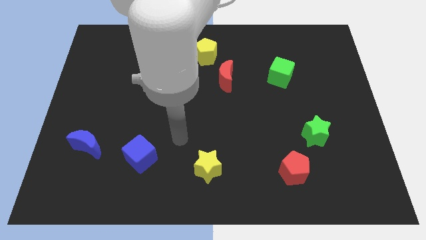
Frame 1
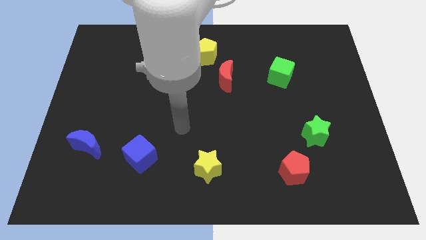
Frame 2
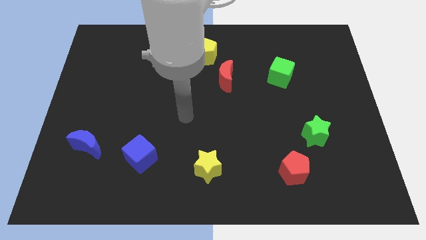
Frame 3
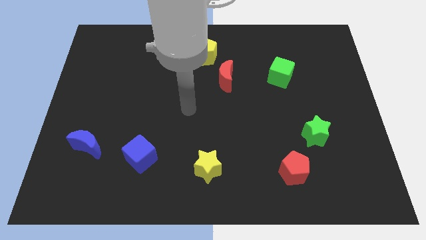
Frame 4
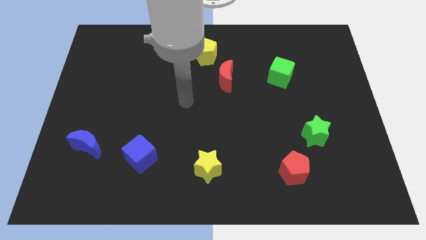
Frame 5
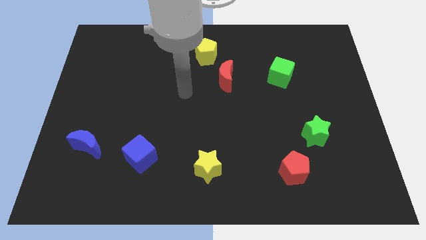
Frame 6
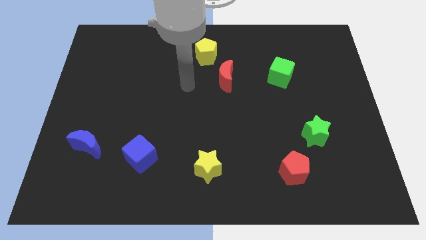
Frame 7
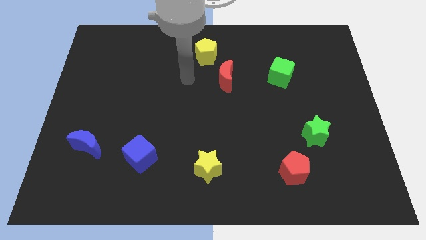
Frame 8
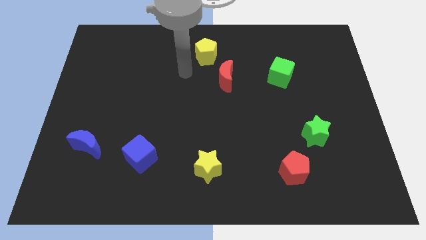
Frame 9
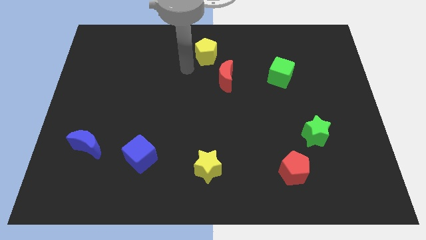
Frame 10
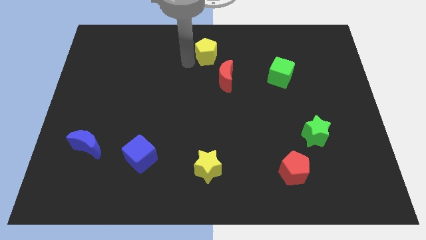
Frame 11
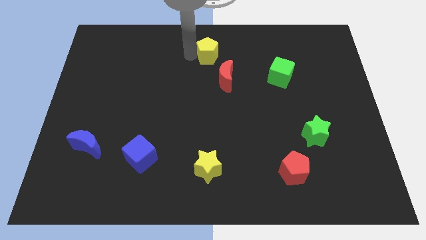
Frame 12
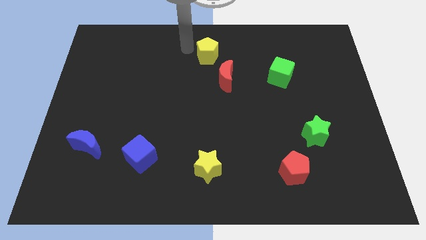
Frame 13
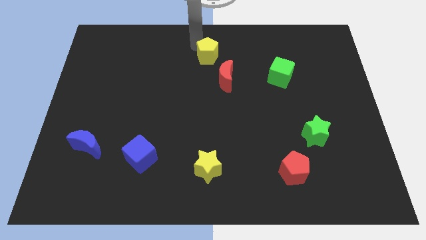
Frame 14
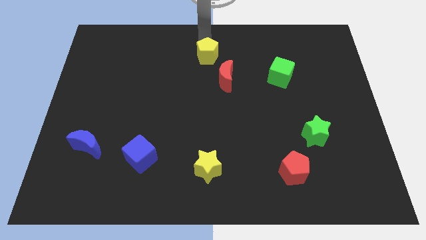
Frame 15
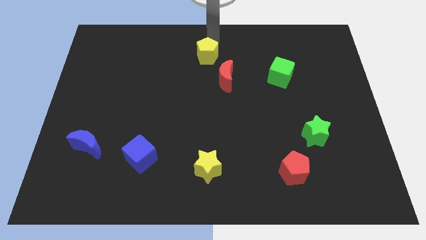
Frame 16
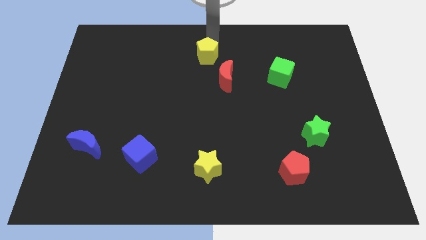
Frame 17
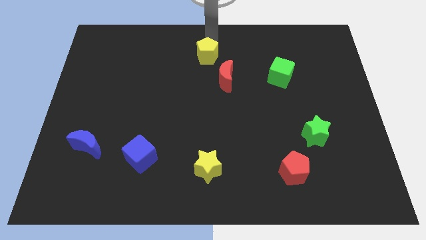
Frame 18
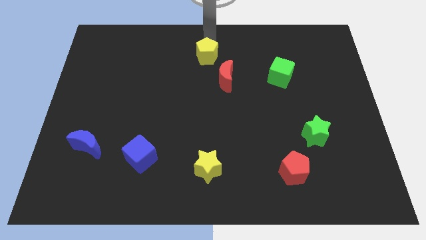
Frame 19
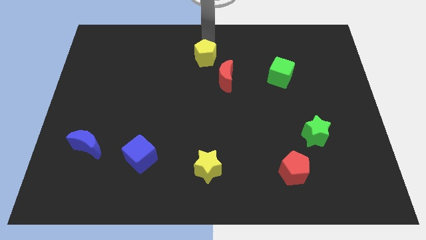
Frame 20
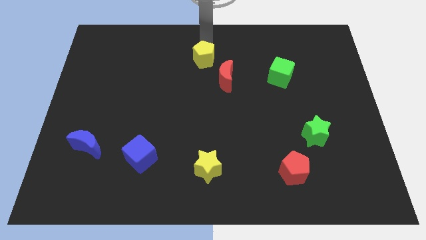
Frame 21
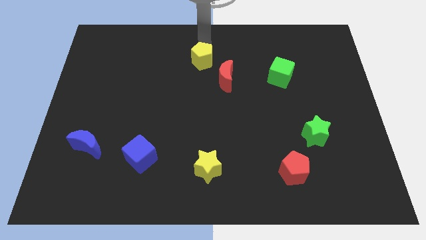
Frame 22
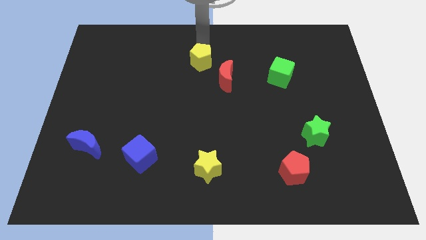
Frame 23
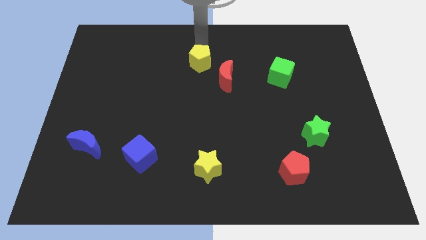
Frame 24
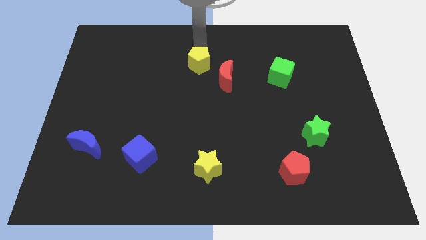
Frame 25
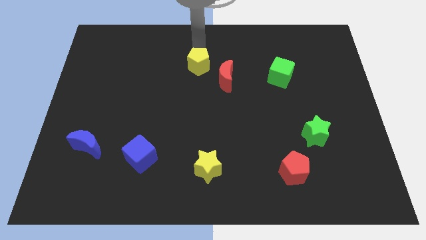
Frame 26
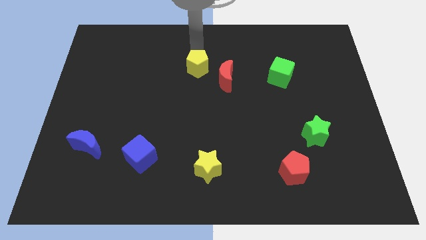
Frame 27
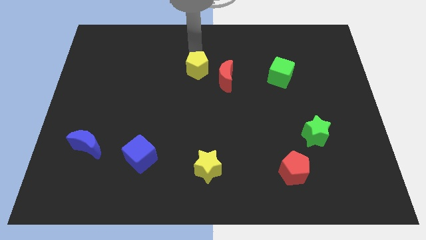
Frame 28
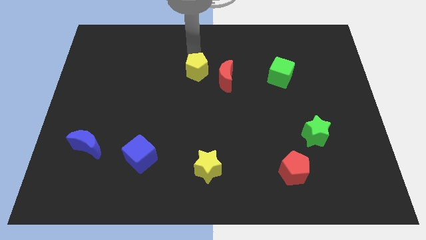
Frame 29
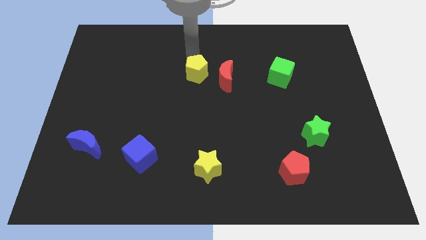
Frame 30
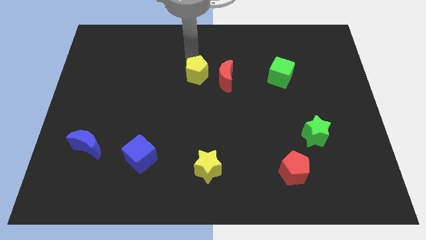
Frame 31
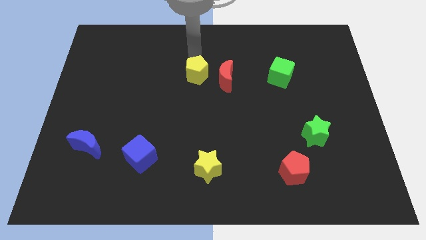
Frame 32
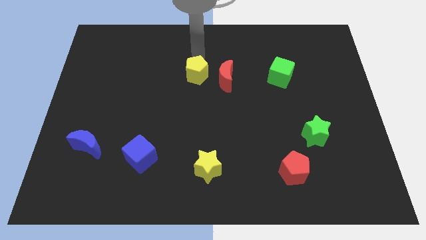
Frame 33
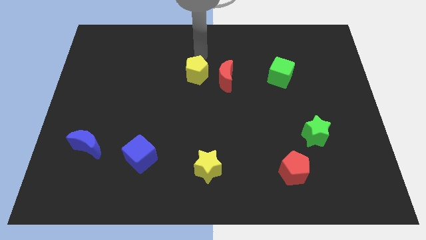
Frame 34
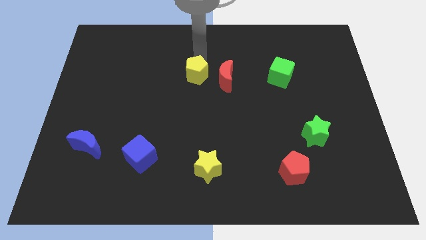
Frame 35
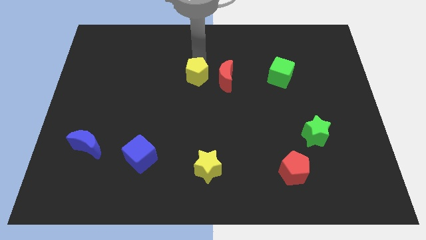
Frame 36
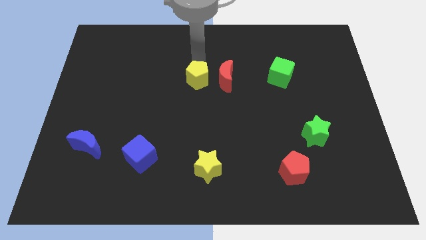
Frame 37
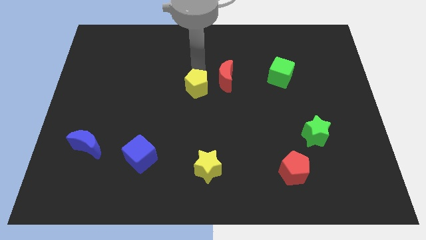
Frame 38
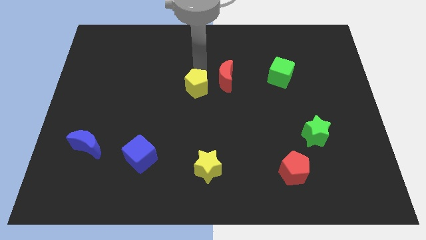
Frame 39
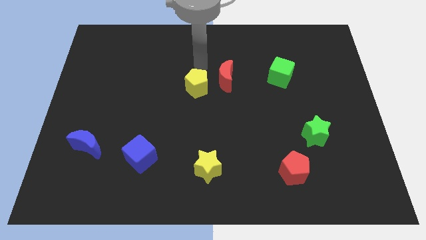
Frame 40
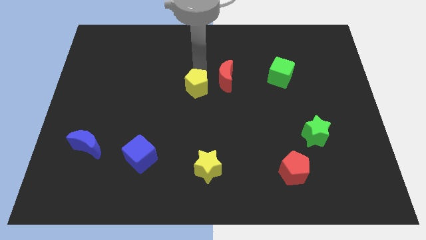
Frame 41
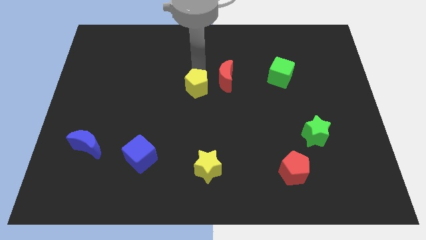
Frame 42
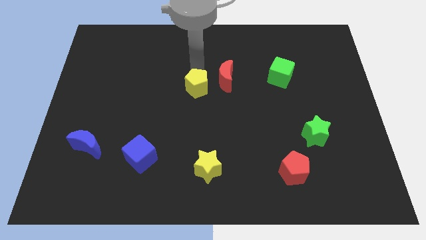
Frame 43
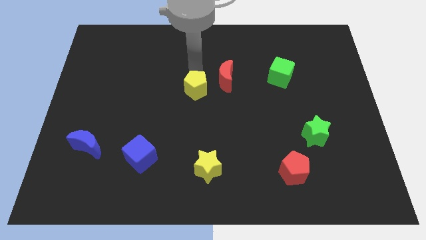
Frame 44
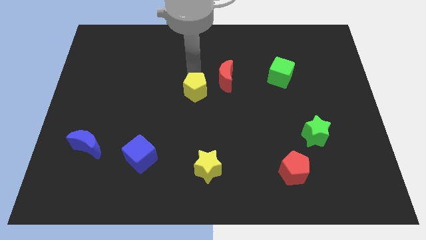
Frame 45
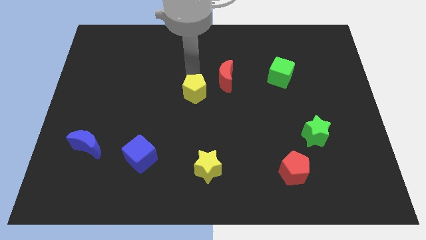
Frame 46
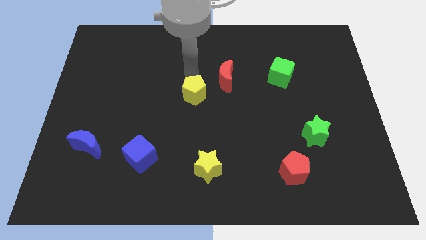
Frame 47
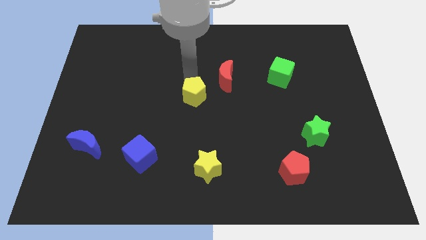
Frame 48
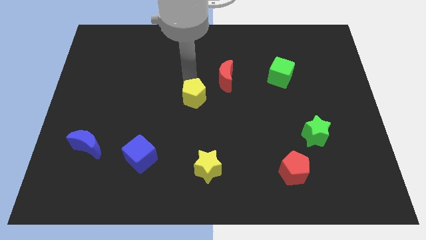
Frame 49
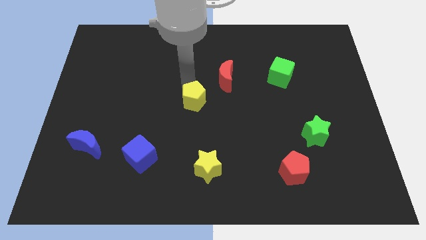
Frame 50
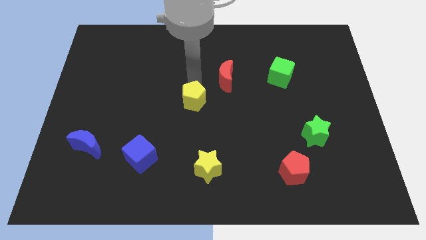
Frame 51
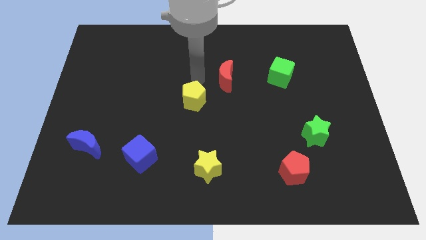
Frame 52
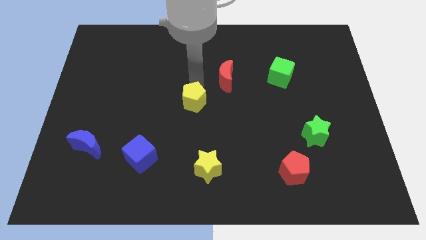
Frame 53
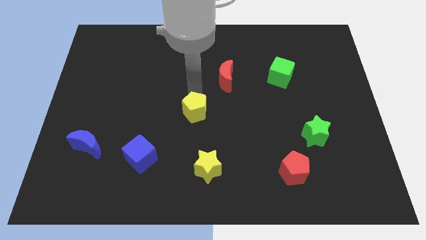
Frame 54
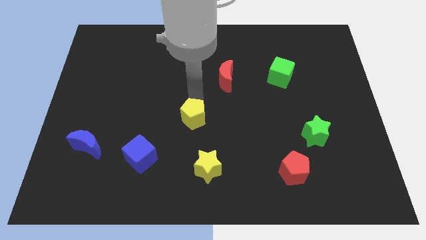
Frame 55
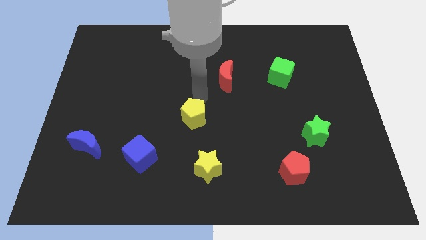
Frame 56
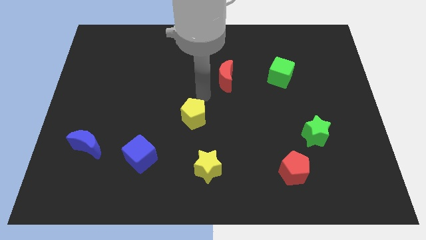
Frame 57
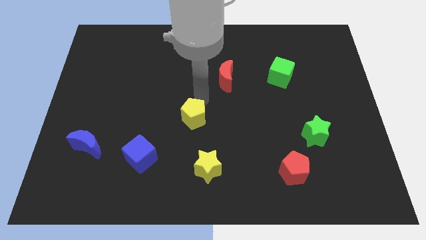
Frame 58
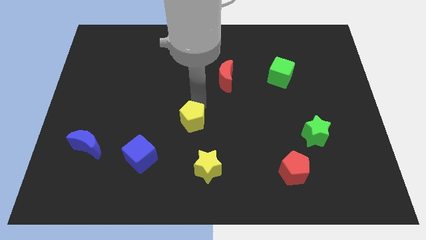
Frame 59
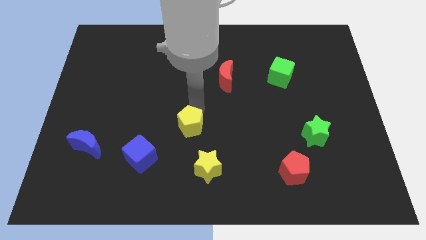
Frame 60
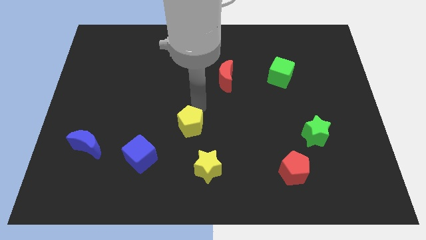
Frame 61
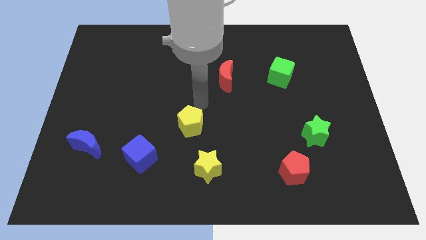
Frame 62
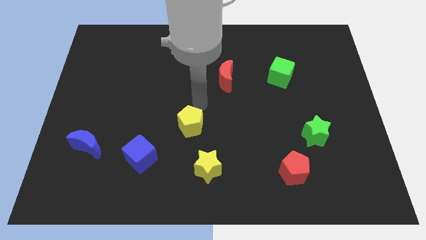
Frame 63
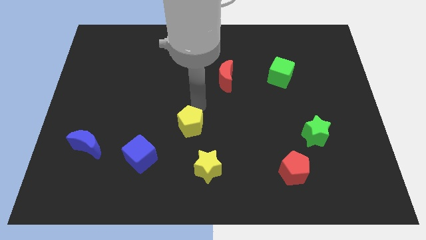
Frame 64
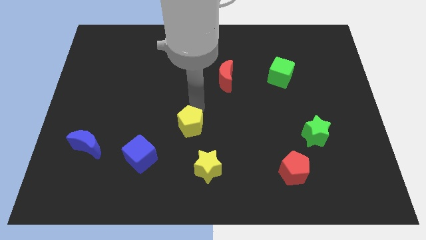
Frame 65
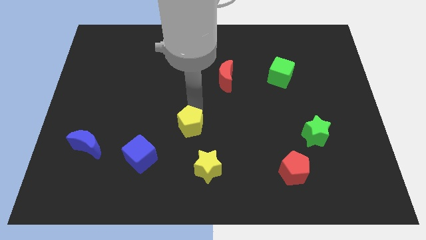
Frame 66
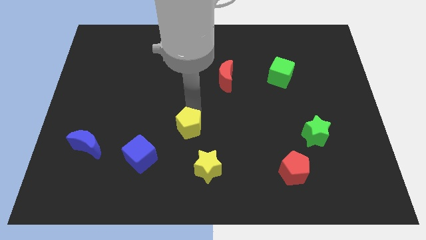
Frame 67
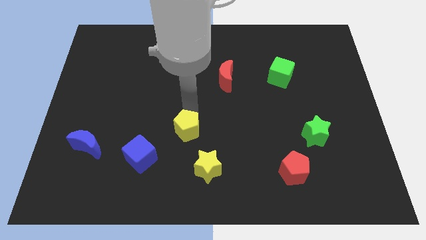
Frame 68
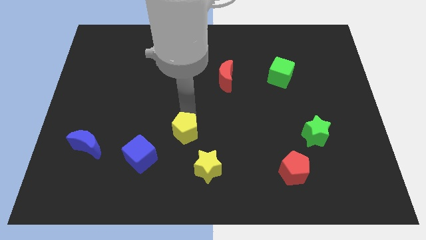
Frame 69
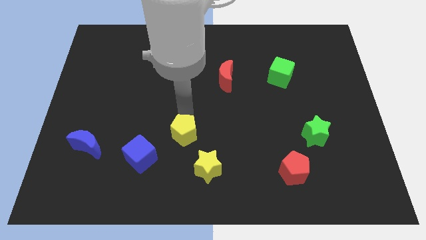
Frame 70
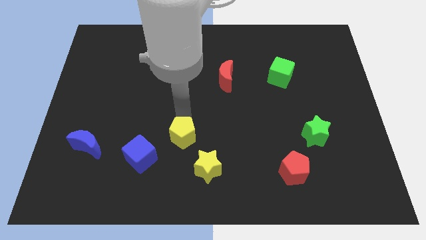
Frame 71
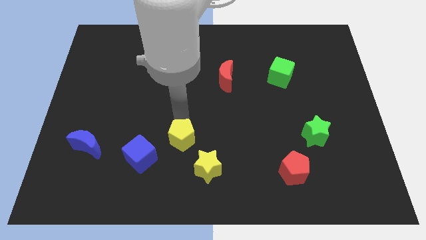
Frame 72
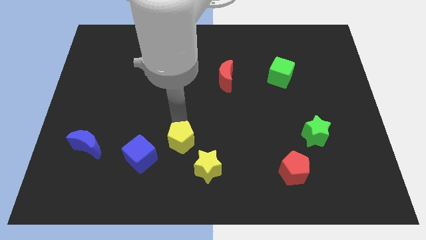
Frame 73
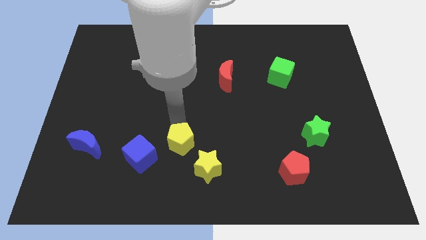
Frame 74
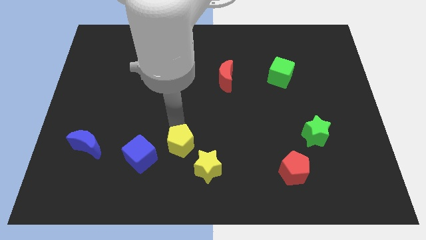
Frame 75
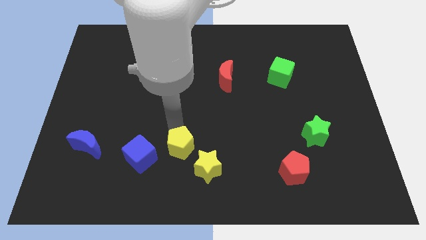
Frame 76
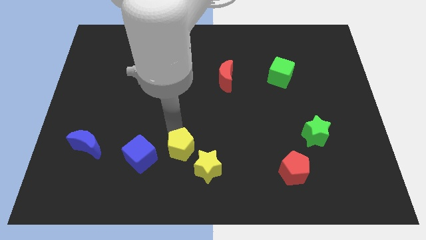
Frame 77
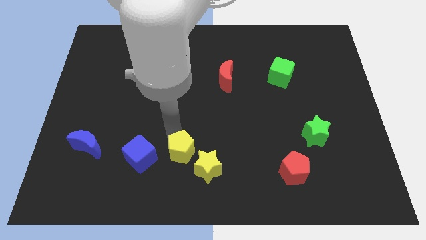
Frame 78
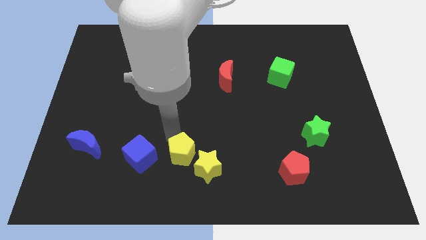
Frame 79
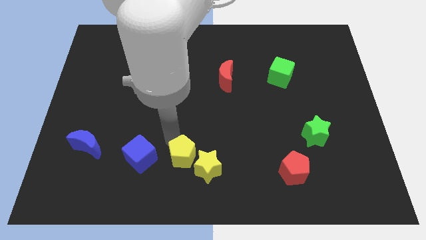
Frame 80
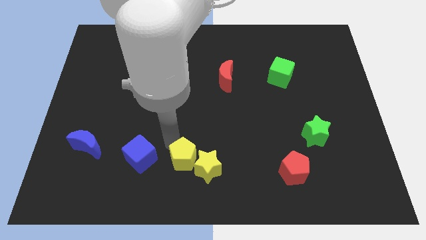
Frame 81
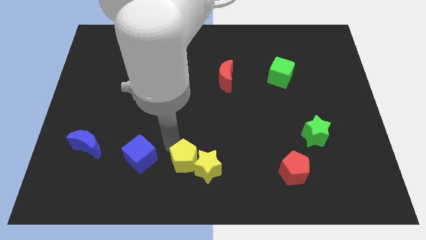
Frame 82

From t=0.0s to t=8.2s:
put the yellow pentagon to the bottom side

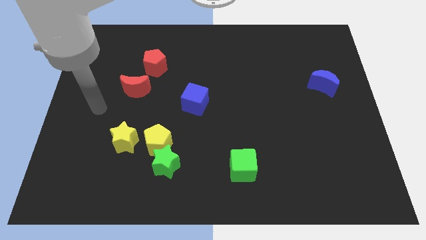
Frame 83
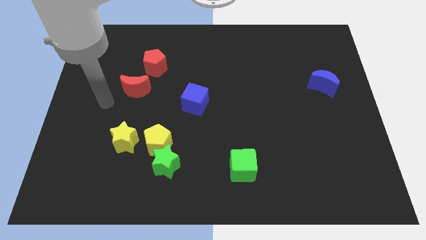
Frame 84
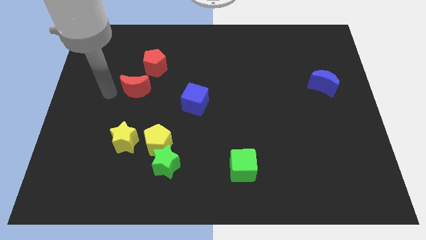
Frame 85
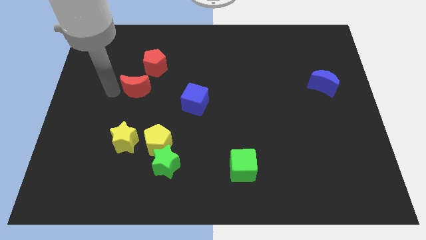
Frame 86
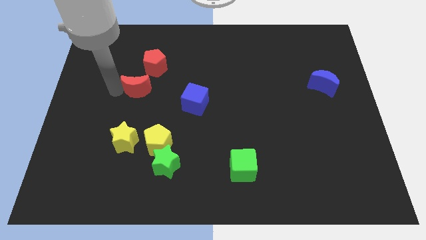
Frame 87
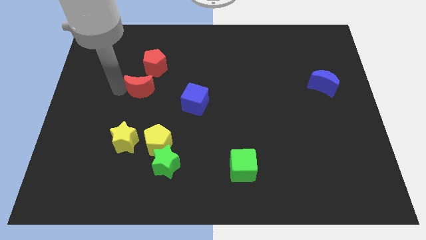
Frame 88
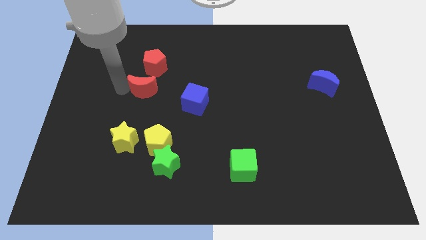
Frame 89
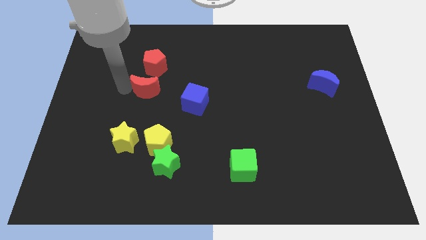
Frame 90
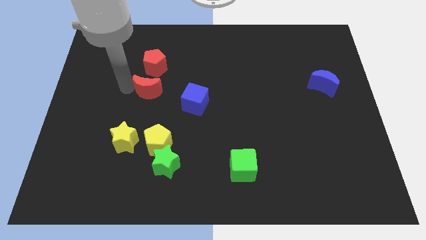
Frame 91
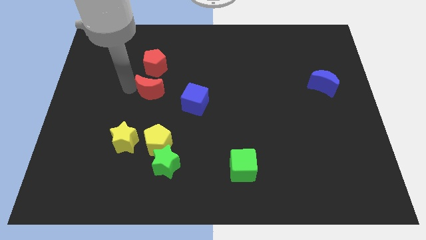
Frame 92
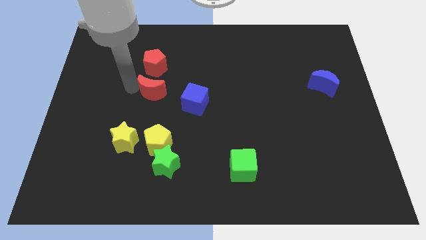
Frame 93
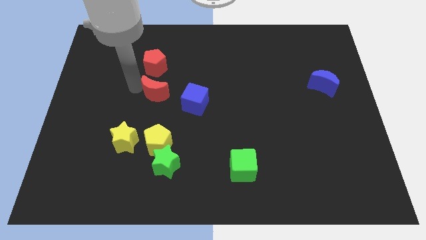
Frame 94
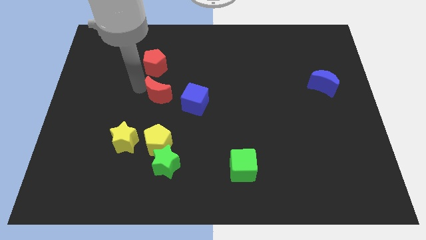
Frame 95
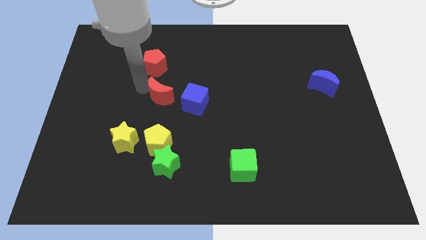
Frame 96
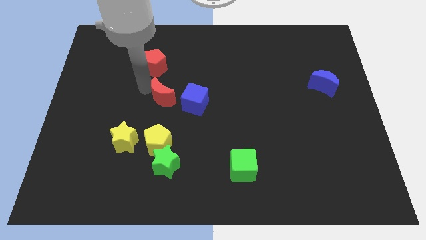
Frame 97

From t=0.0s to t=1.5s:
put the red moon to the middle
